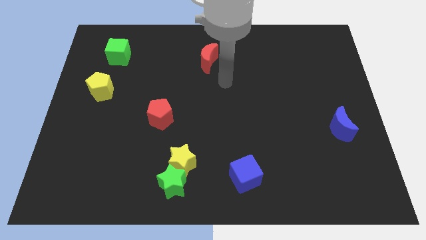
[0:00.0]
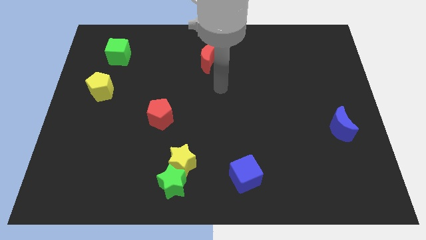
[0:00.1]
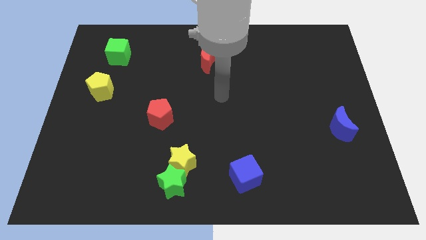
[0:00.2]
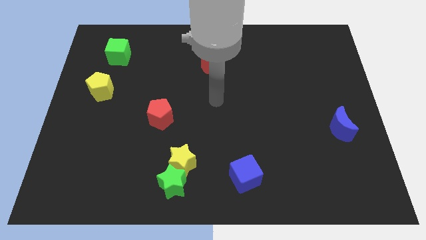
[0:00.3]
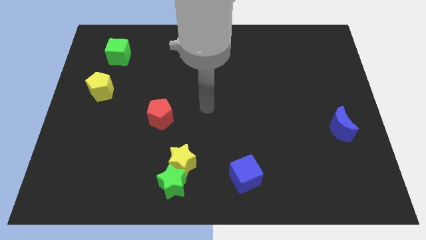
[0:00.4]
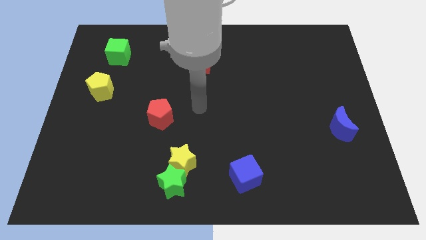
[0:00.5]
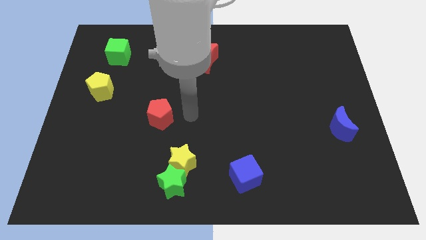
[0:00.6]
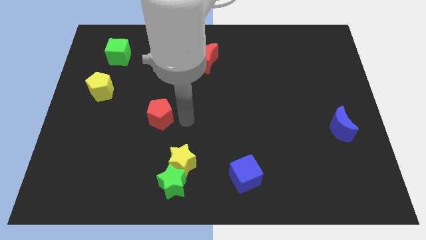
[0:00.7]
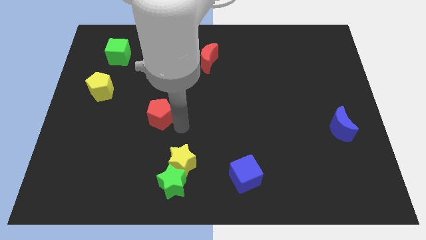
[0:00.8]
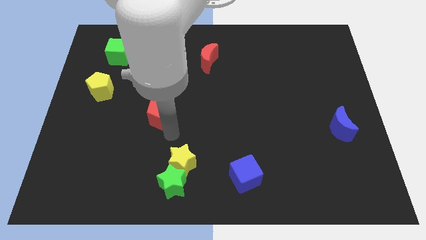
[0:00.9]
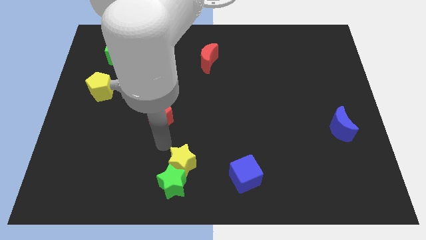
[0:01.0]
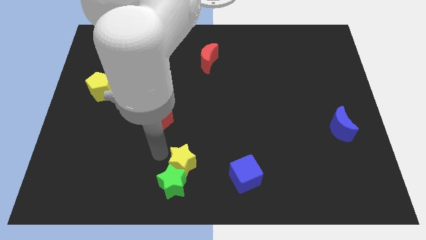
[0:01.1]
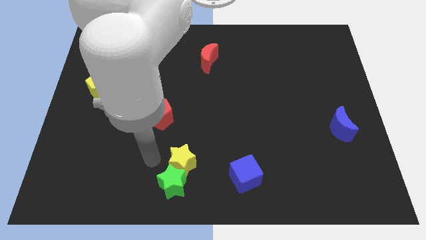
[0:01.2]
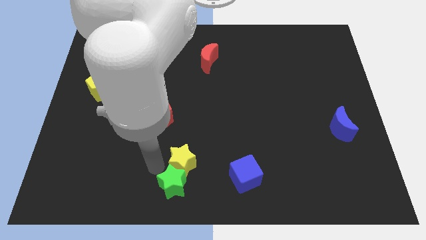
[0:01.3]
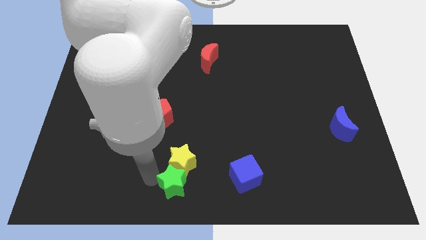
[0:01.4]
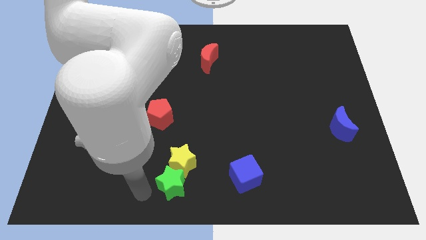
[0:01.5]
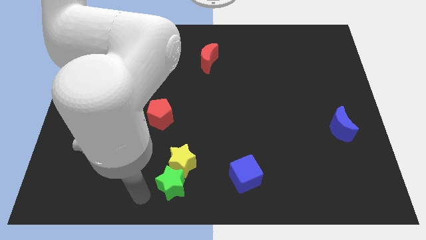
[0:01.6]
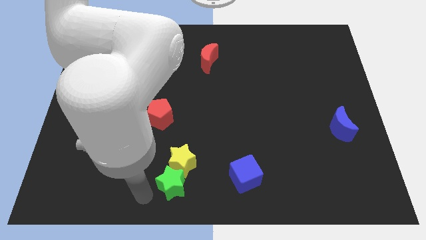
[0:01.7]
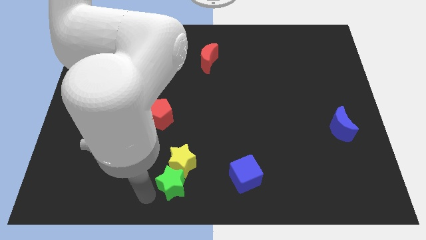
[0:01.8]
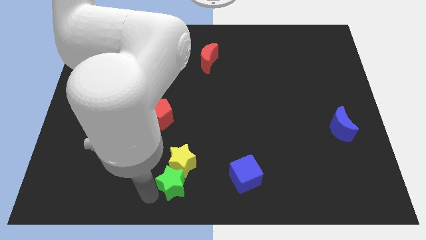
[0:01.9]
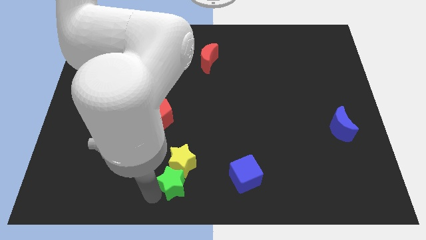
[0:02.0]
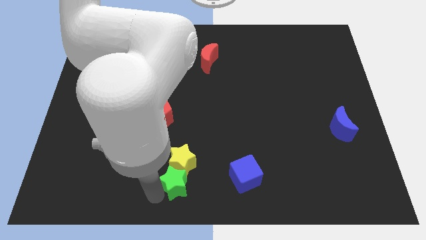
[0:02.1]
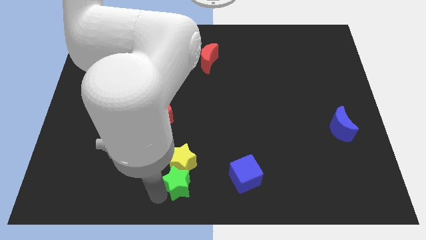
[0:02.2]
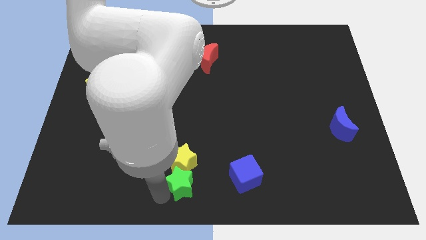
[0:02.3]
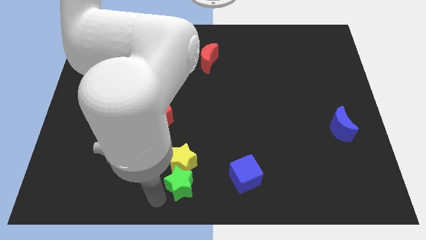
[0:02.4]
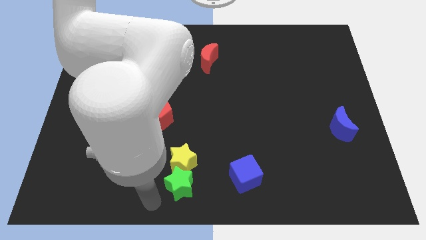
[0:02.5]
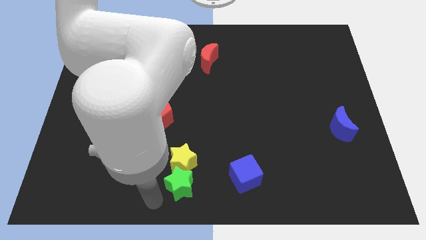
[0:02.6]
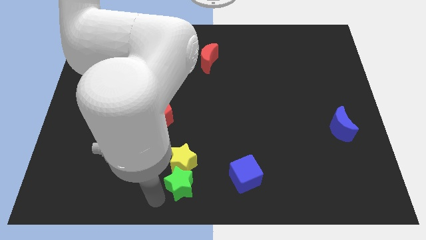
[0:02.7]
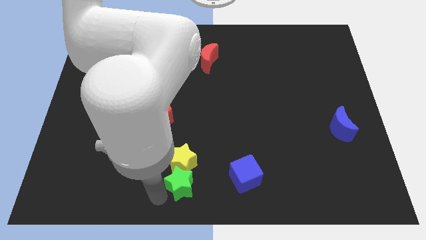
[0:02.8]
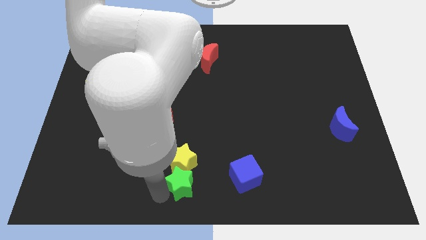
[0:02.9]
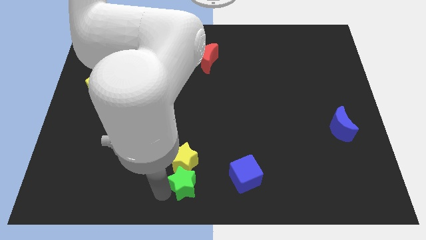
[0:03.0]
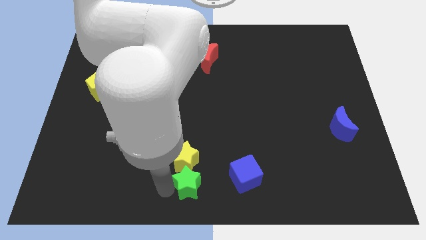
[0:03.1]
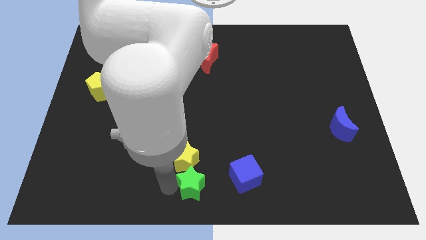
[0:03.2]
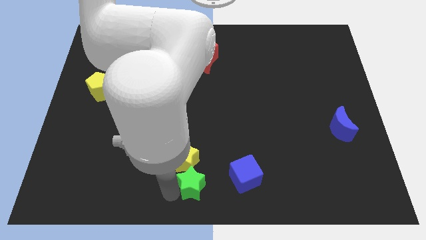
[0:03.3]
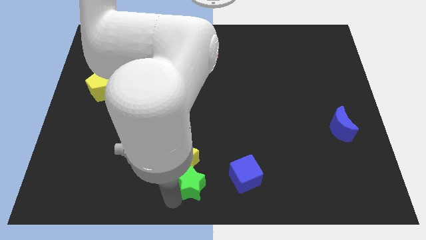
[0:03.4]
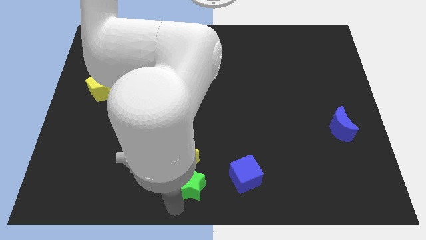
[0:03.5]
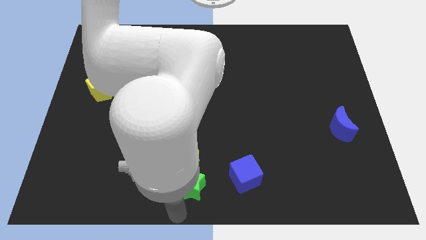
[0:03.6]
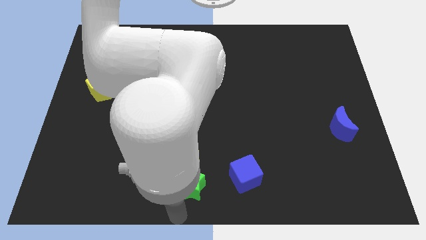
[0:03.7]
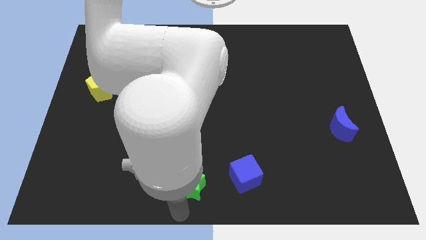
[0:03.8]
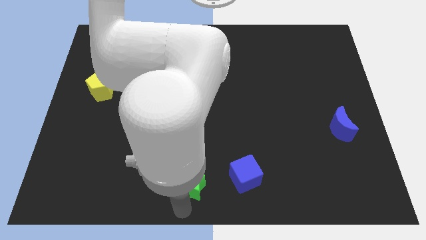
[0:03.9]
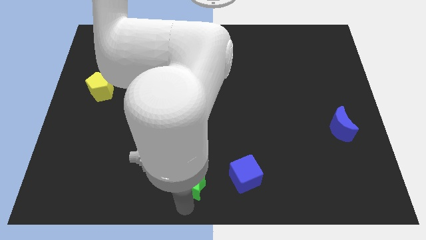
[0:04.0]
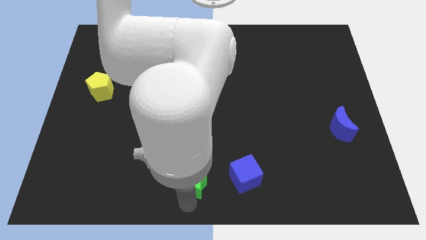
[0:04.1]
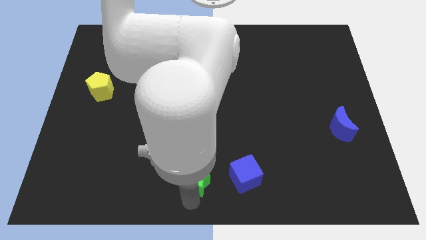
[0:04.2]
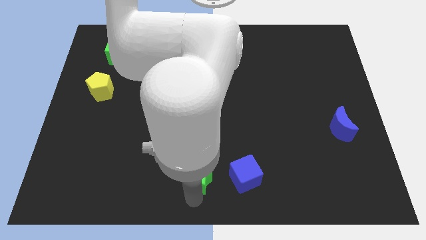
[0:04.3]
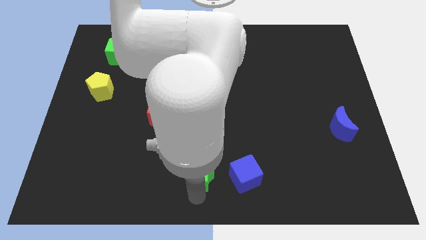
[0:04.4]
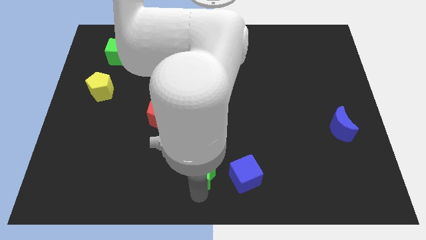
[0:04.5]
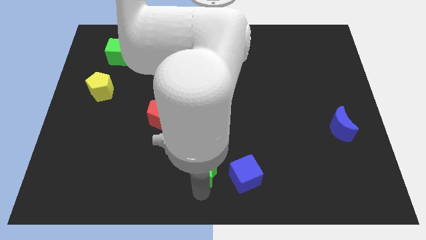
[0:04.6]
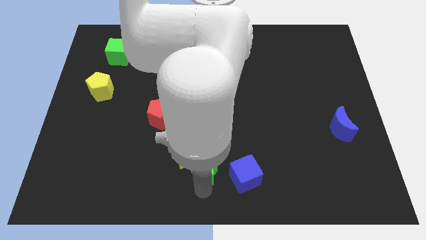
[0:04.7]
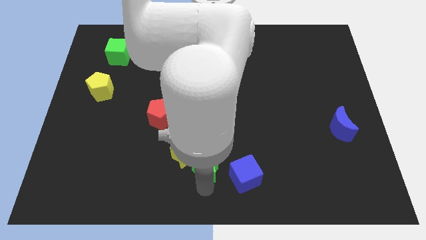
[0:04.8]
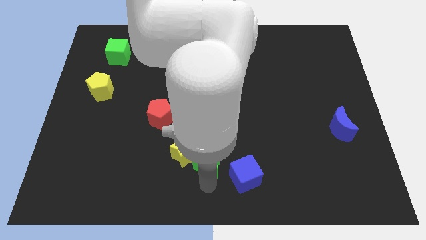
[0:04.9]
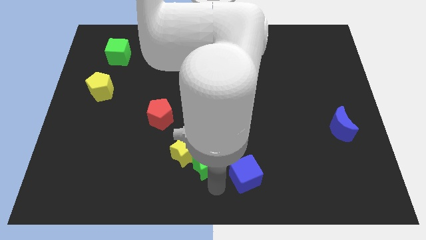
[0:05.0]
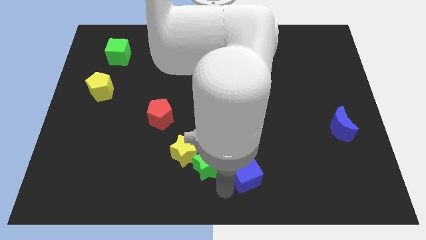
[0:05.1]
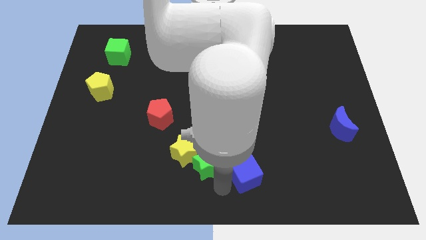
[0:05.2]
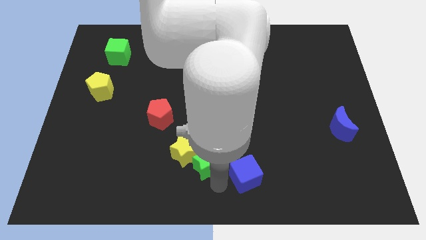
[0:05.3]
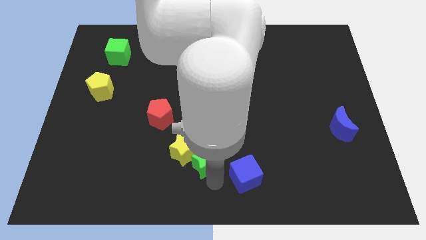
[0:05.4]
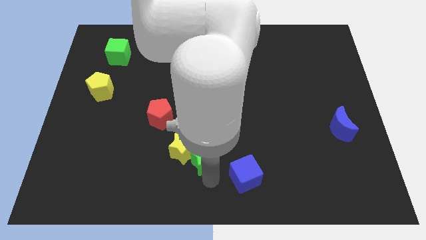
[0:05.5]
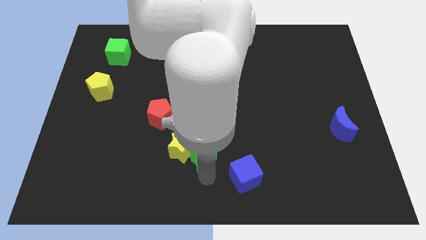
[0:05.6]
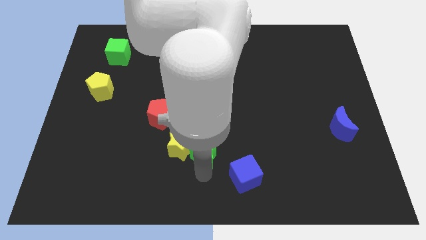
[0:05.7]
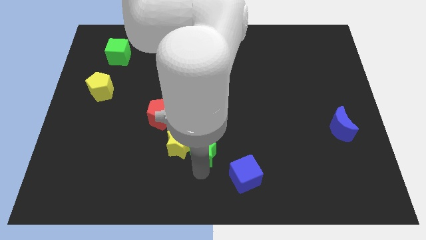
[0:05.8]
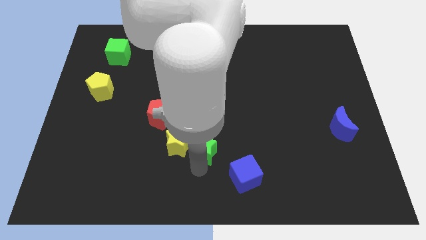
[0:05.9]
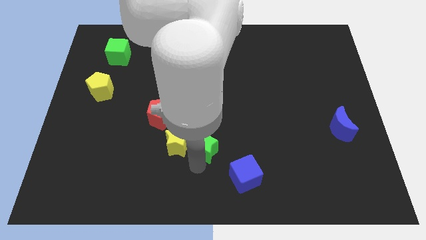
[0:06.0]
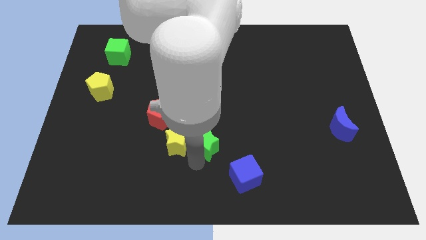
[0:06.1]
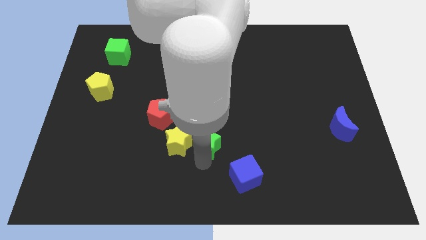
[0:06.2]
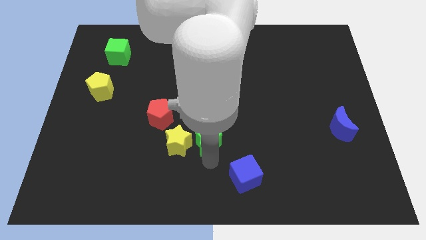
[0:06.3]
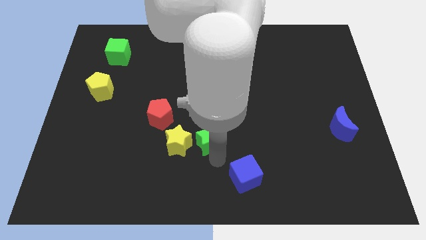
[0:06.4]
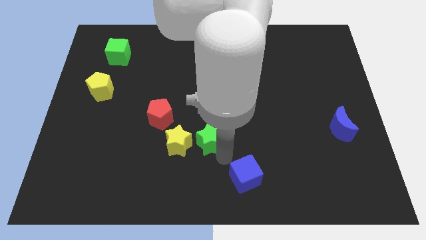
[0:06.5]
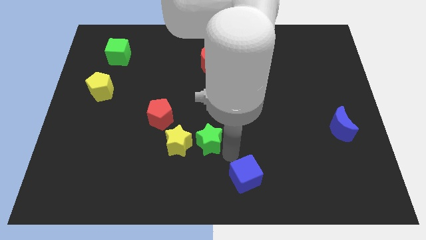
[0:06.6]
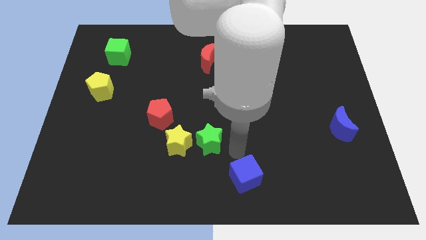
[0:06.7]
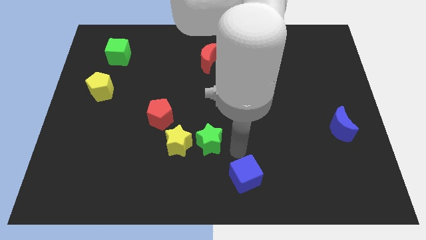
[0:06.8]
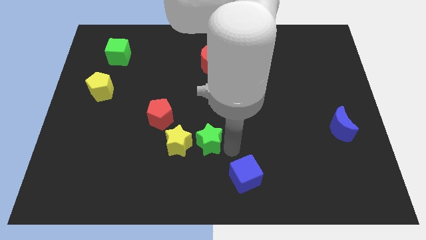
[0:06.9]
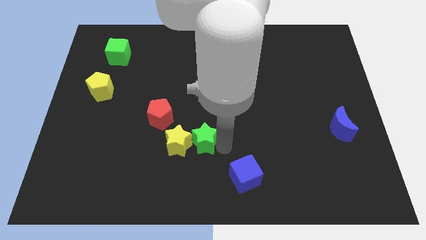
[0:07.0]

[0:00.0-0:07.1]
push the green star to the bottom right side of the red pentagon
